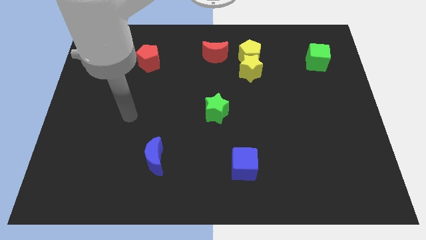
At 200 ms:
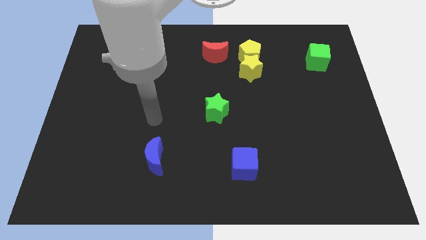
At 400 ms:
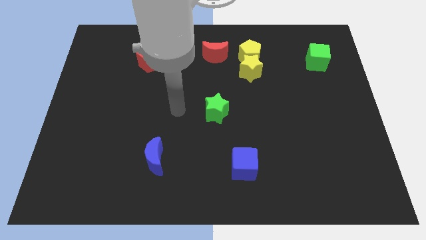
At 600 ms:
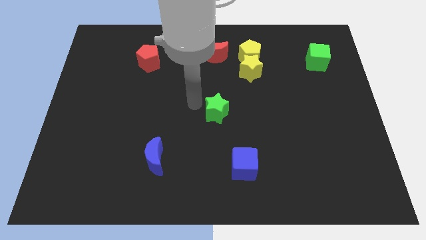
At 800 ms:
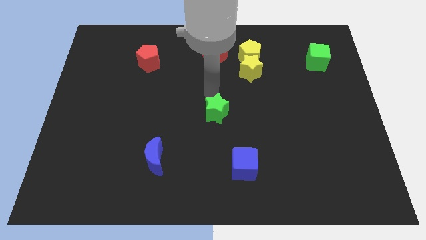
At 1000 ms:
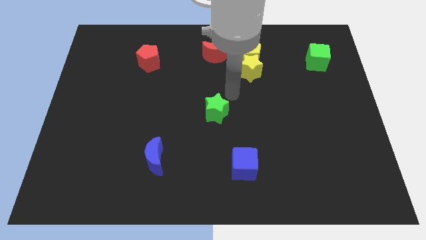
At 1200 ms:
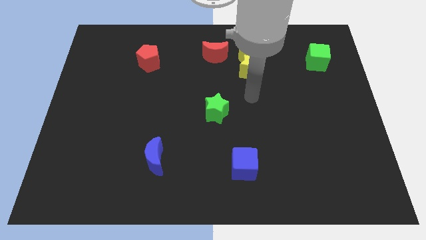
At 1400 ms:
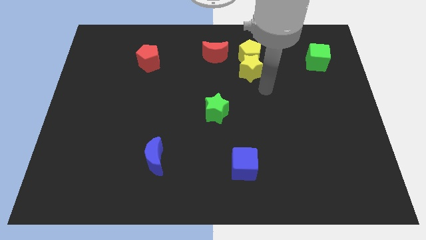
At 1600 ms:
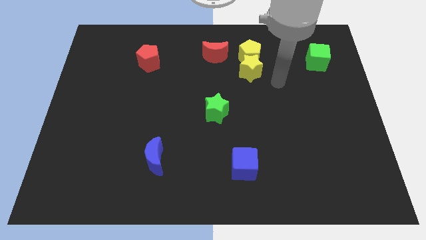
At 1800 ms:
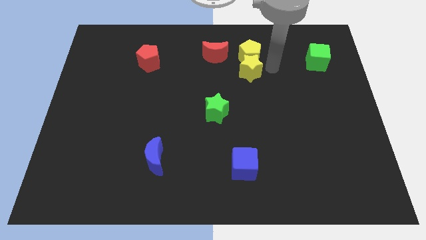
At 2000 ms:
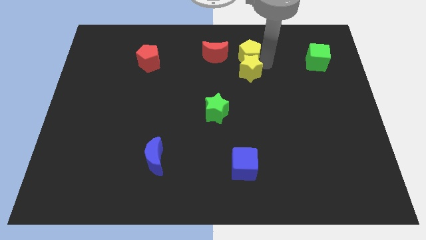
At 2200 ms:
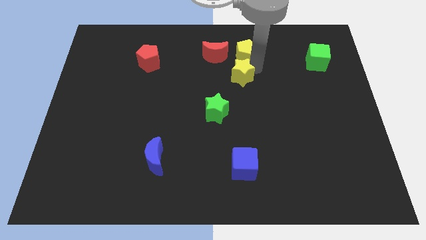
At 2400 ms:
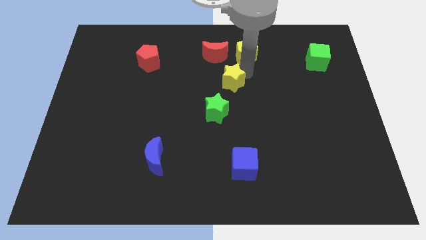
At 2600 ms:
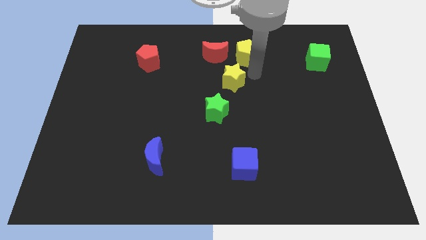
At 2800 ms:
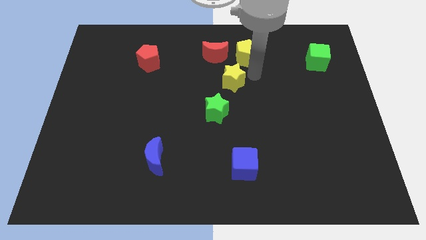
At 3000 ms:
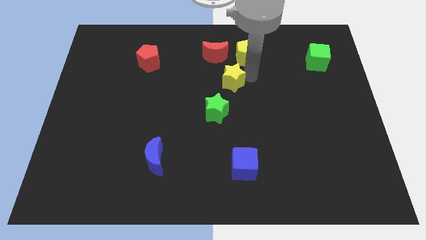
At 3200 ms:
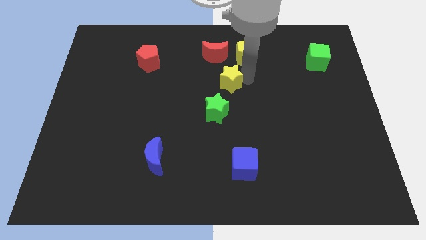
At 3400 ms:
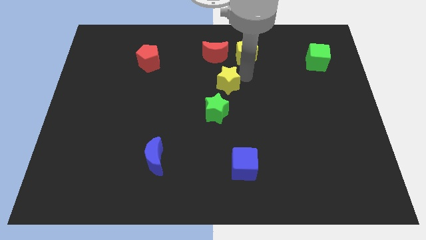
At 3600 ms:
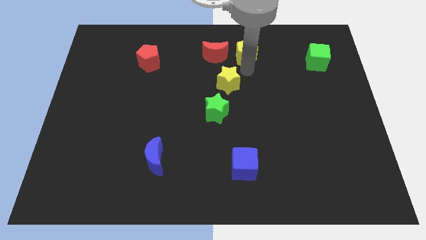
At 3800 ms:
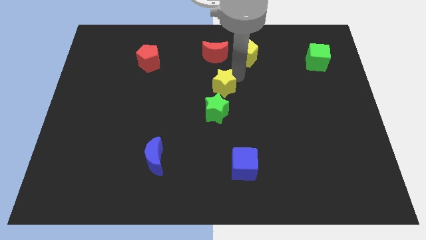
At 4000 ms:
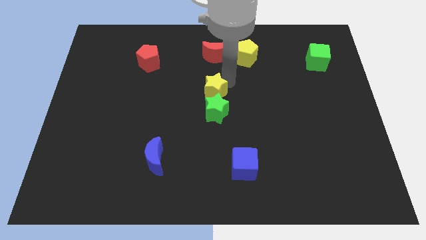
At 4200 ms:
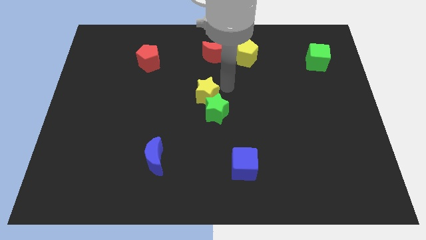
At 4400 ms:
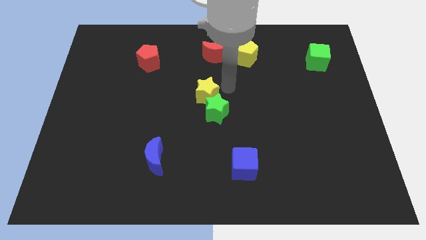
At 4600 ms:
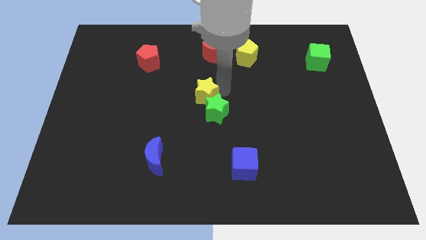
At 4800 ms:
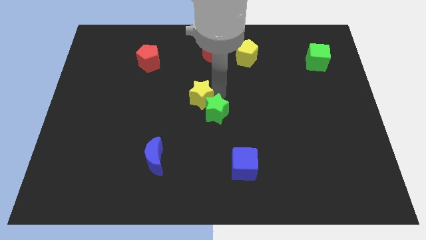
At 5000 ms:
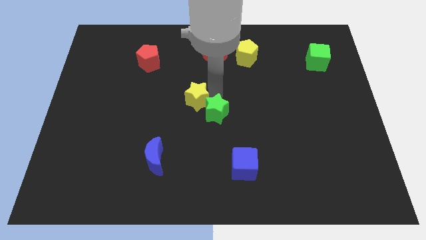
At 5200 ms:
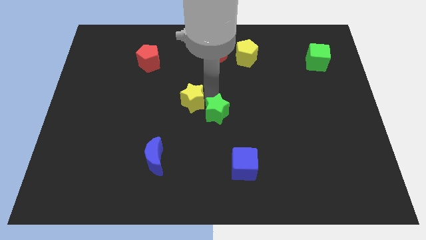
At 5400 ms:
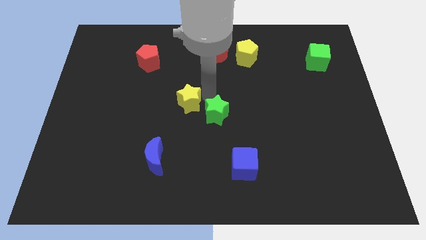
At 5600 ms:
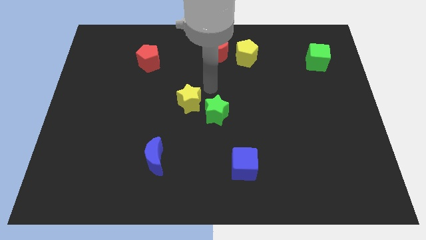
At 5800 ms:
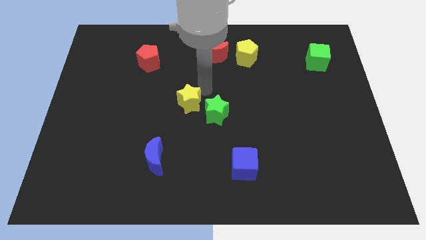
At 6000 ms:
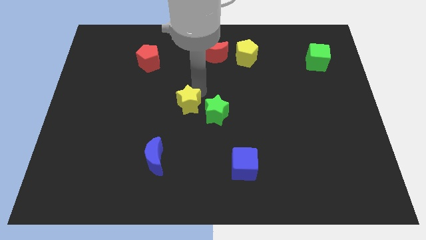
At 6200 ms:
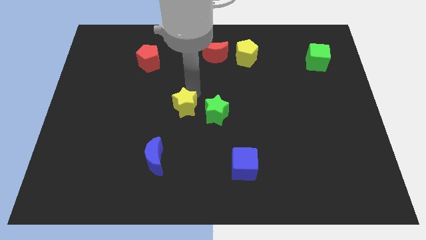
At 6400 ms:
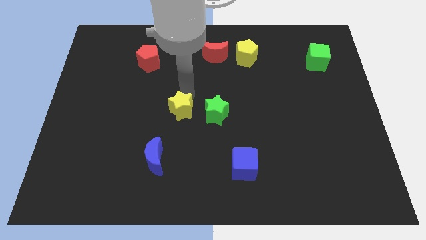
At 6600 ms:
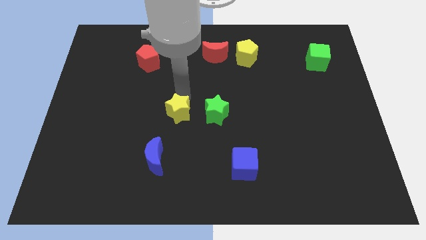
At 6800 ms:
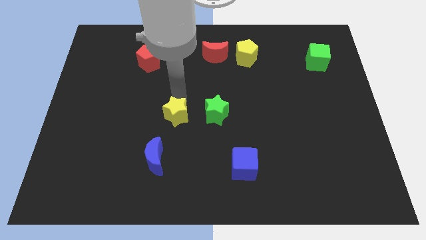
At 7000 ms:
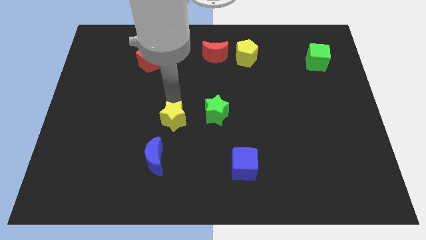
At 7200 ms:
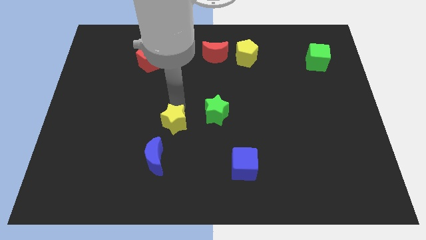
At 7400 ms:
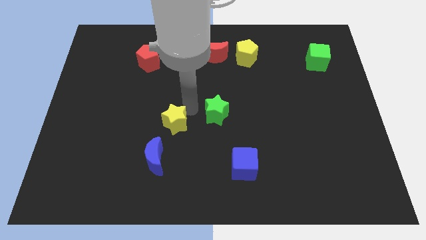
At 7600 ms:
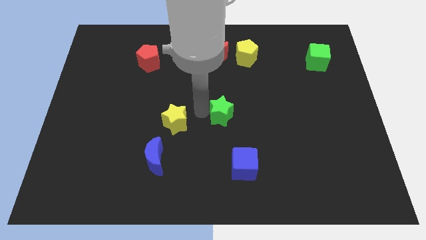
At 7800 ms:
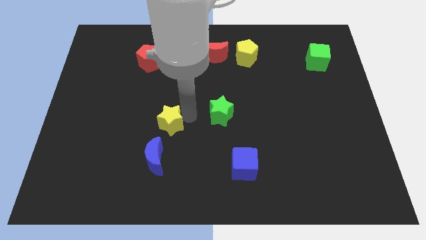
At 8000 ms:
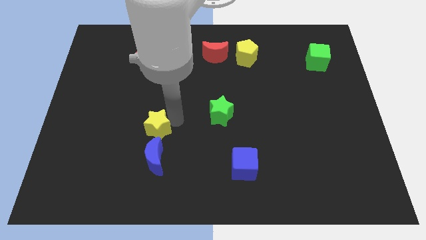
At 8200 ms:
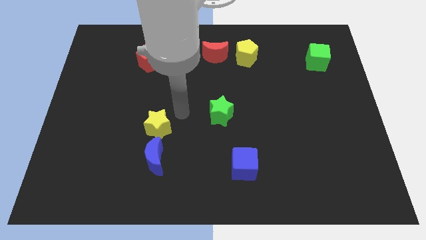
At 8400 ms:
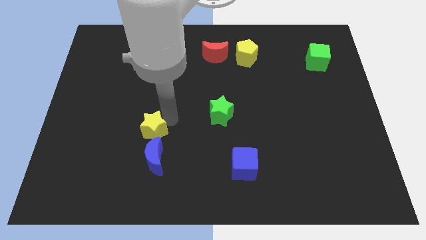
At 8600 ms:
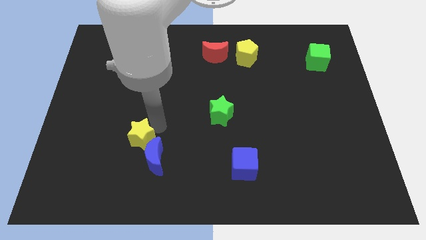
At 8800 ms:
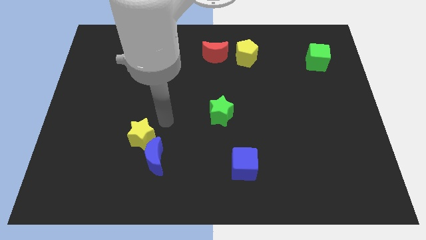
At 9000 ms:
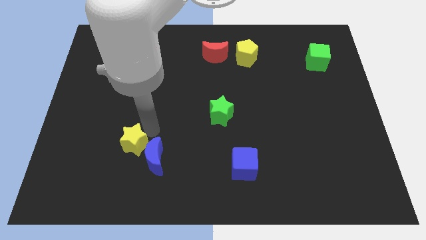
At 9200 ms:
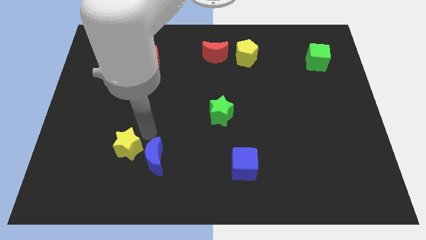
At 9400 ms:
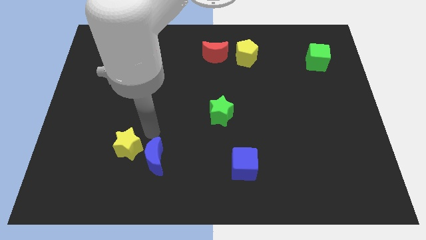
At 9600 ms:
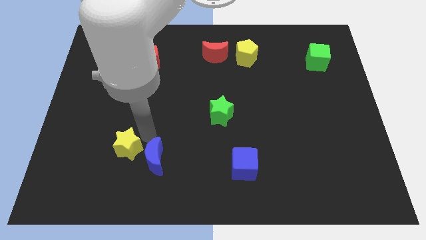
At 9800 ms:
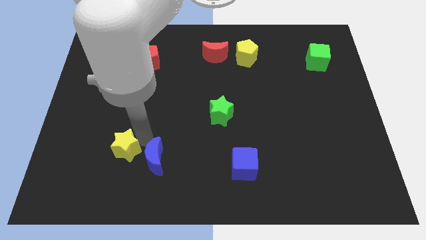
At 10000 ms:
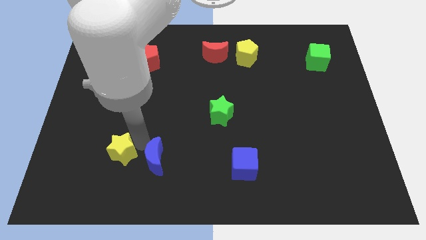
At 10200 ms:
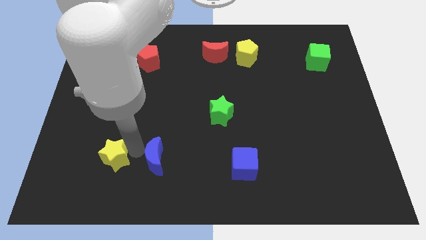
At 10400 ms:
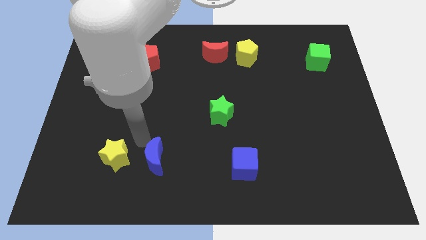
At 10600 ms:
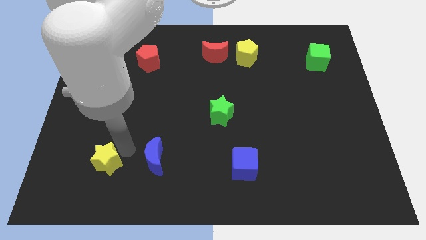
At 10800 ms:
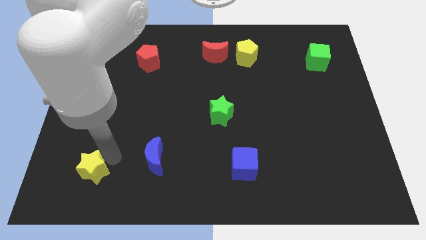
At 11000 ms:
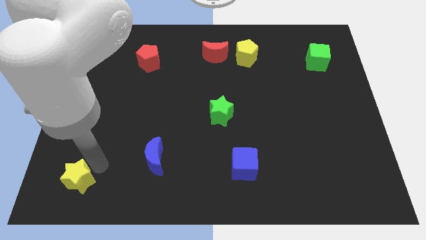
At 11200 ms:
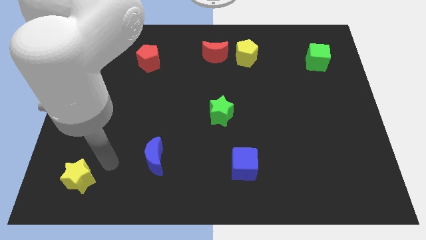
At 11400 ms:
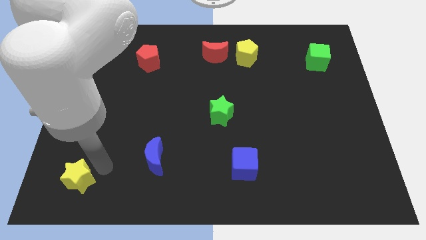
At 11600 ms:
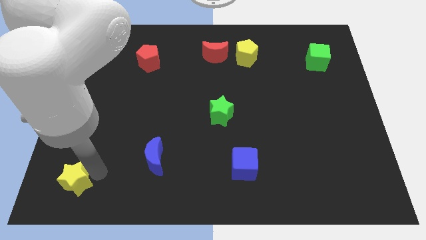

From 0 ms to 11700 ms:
slide the yellow star to the bottom left of the board

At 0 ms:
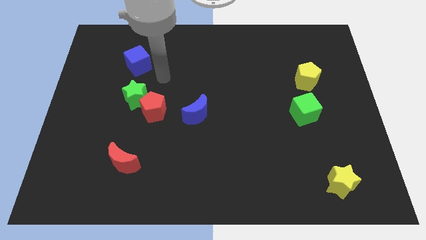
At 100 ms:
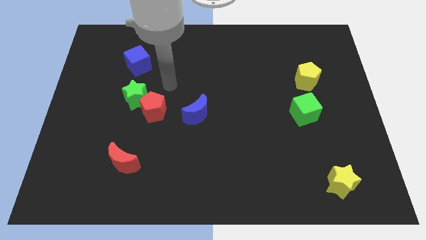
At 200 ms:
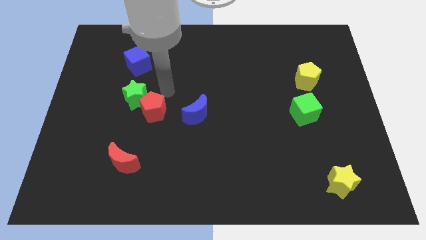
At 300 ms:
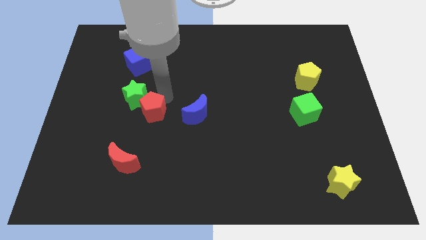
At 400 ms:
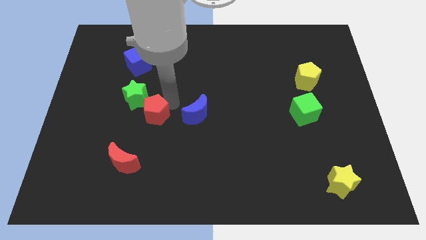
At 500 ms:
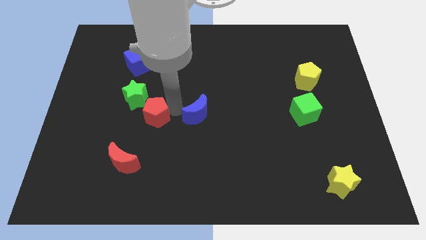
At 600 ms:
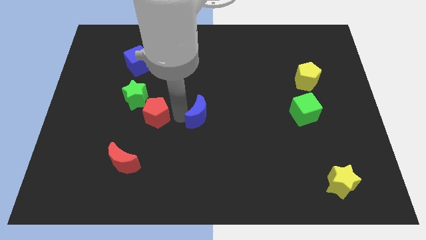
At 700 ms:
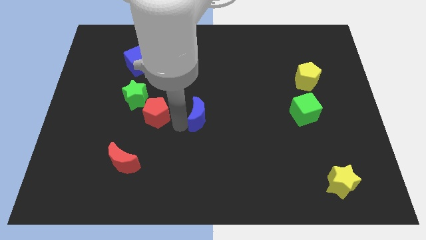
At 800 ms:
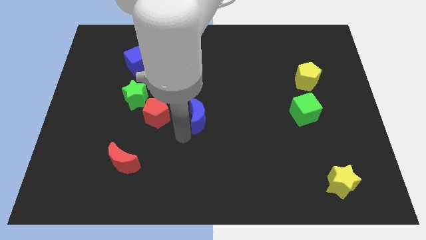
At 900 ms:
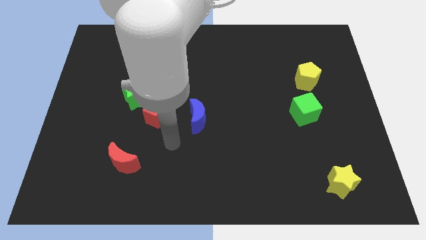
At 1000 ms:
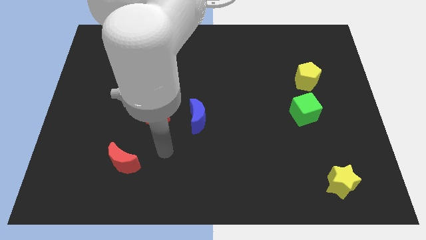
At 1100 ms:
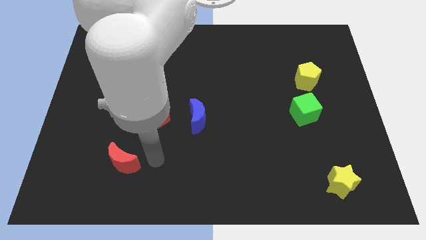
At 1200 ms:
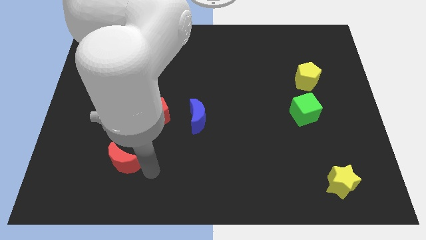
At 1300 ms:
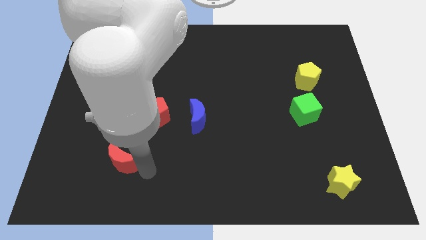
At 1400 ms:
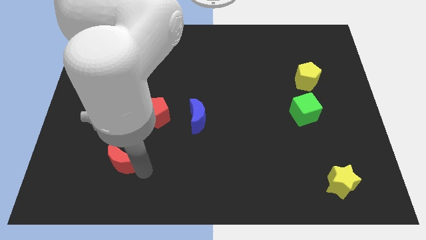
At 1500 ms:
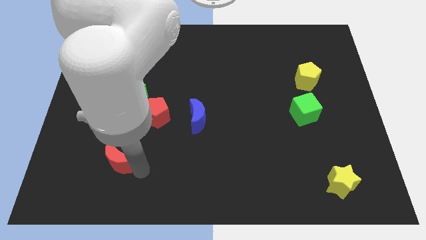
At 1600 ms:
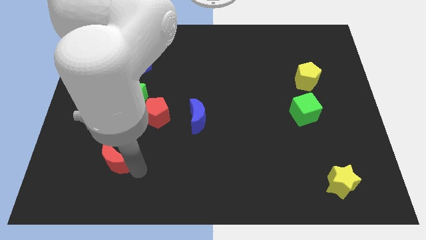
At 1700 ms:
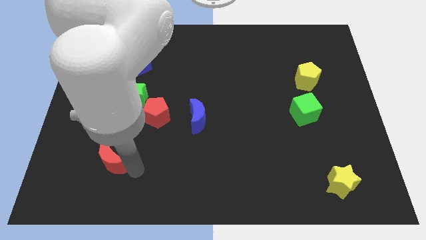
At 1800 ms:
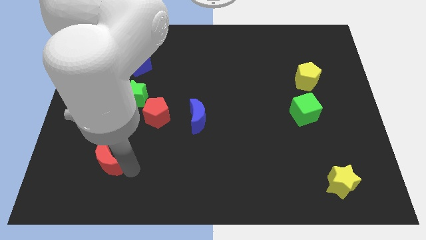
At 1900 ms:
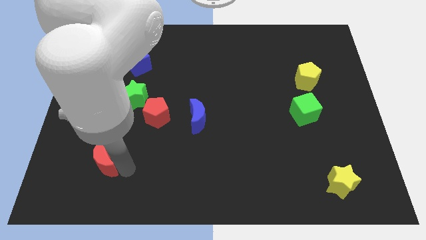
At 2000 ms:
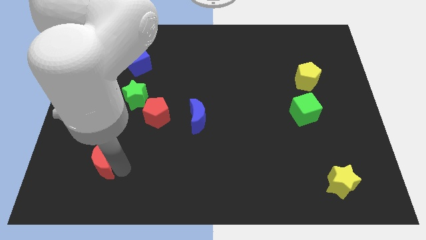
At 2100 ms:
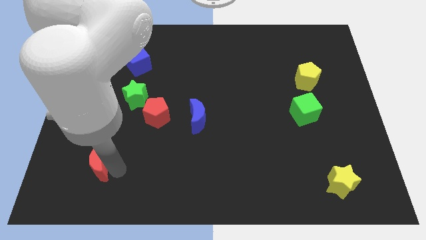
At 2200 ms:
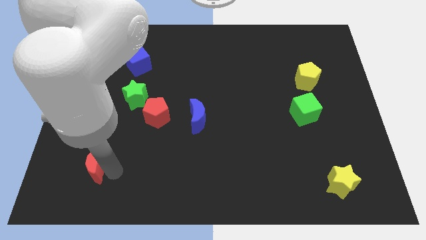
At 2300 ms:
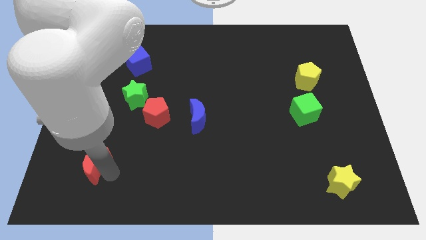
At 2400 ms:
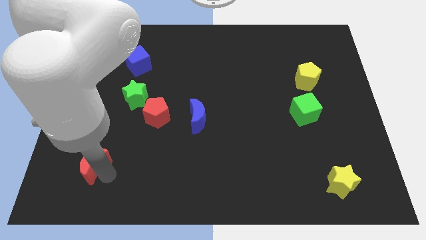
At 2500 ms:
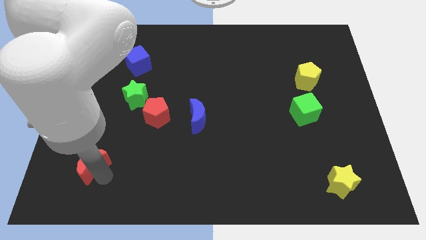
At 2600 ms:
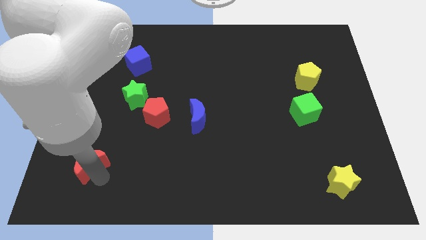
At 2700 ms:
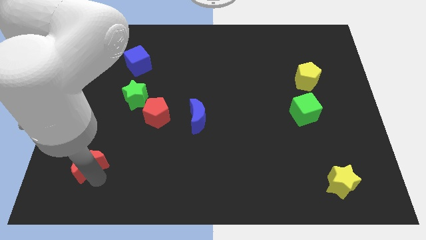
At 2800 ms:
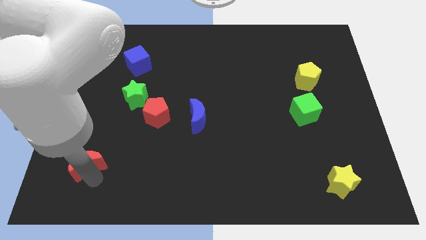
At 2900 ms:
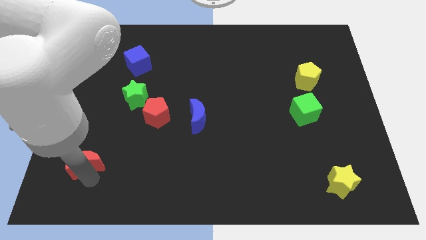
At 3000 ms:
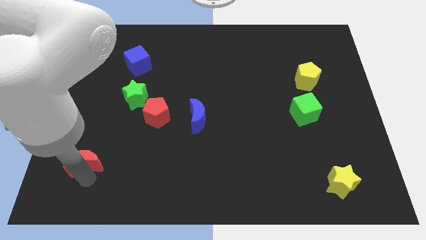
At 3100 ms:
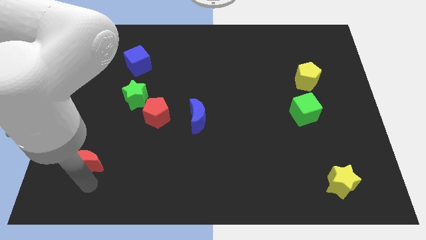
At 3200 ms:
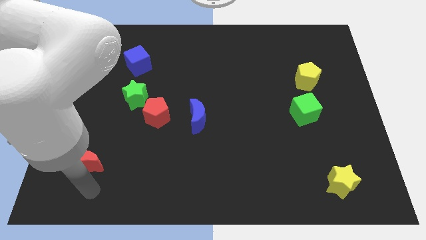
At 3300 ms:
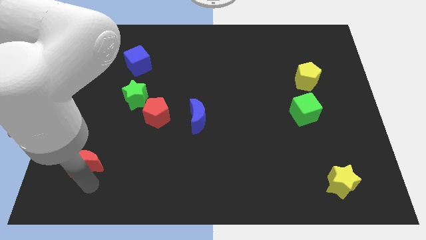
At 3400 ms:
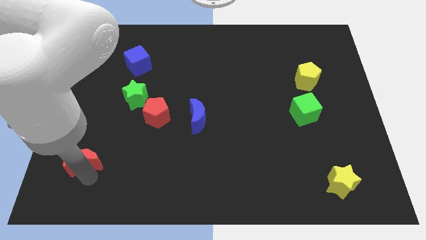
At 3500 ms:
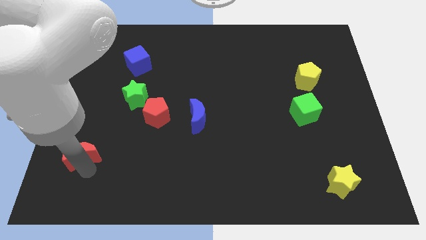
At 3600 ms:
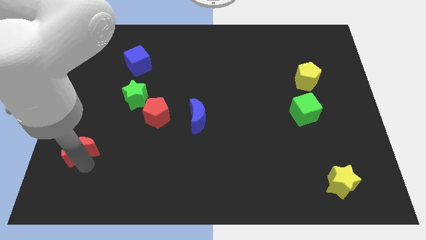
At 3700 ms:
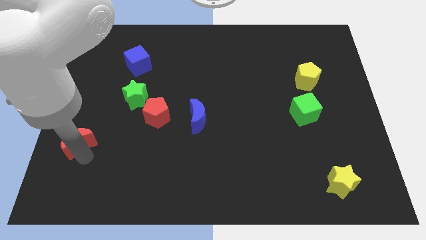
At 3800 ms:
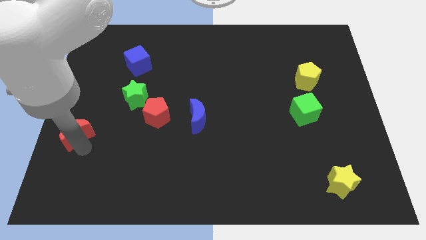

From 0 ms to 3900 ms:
move the red moon to the left side of the board
